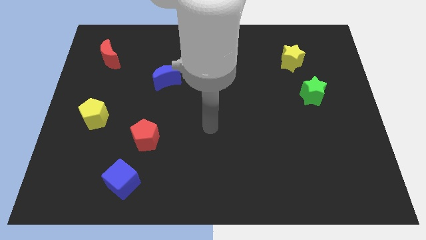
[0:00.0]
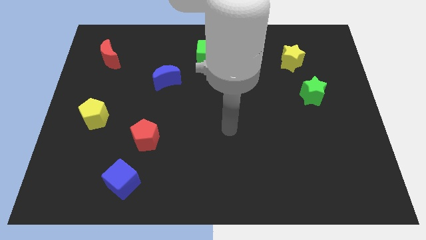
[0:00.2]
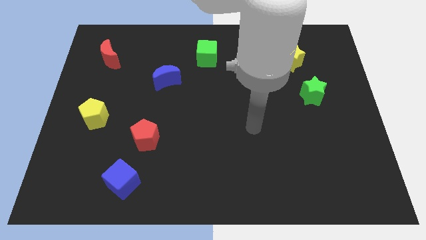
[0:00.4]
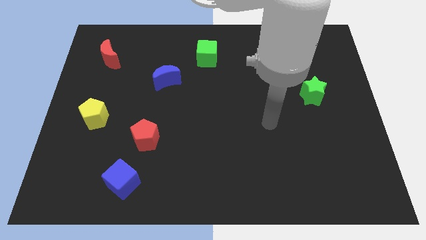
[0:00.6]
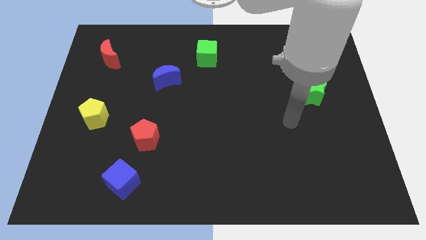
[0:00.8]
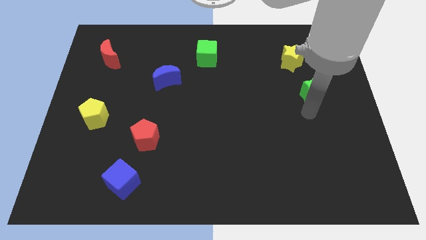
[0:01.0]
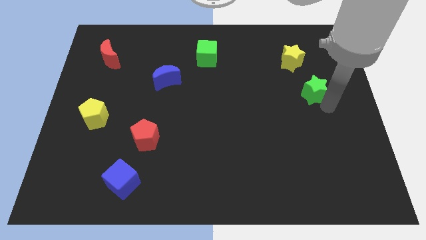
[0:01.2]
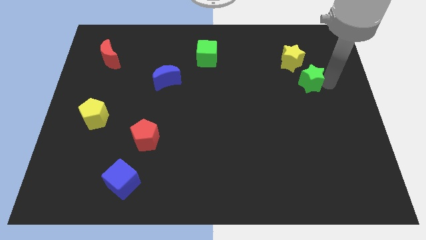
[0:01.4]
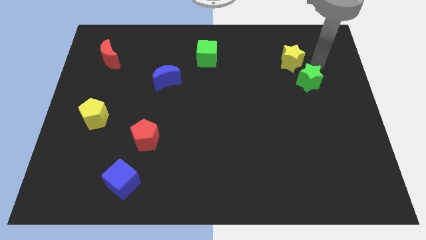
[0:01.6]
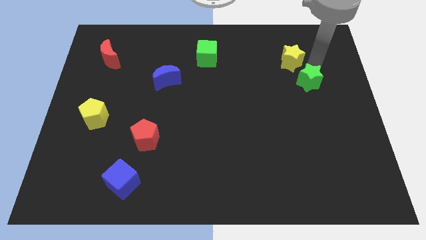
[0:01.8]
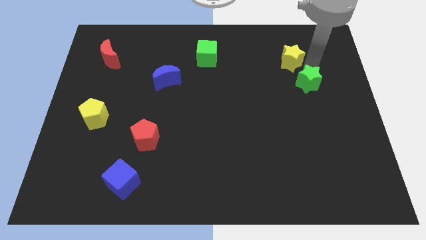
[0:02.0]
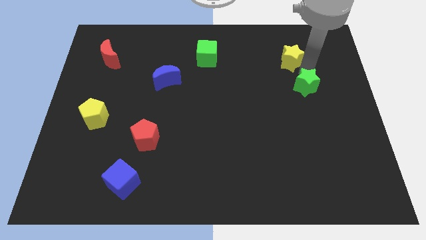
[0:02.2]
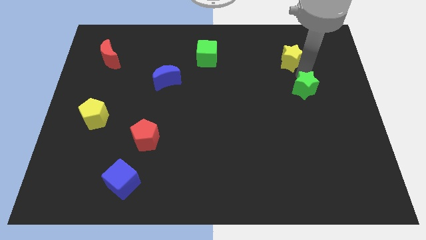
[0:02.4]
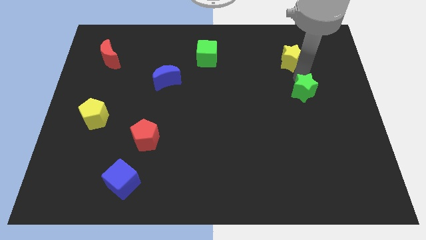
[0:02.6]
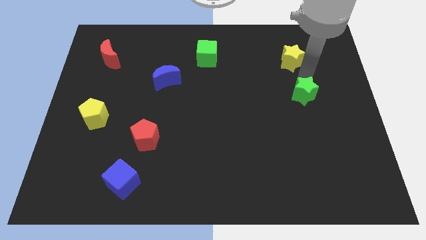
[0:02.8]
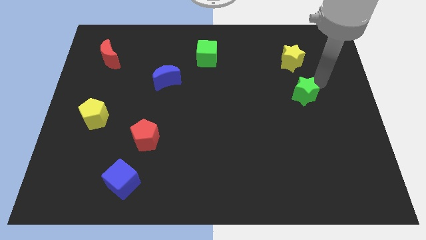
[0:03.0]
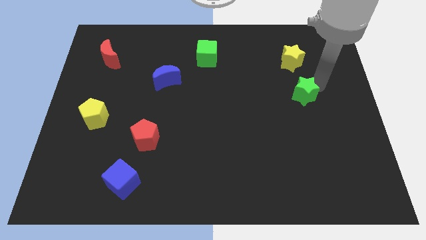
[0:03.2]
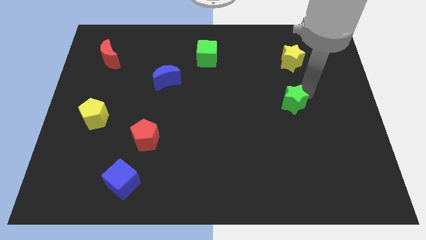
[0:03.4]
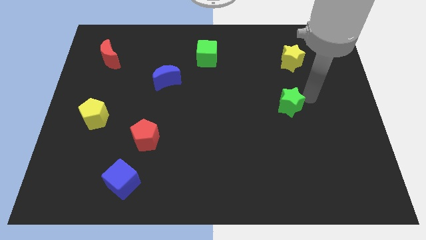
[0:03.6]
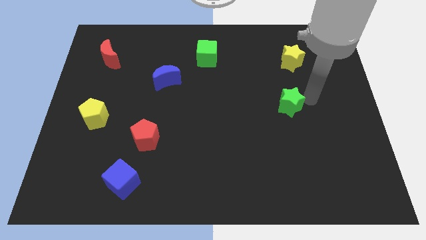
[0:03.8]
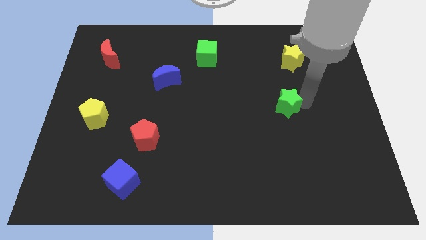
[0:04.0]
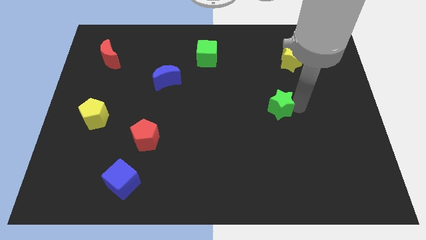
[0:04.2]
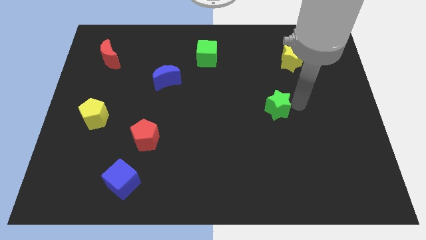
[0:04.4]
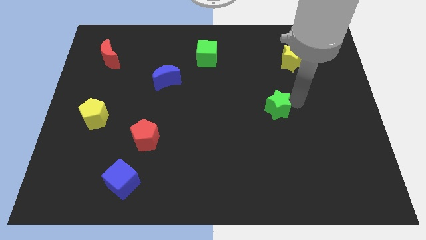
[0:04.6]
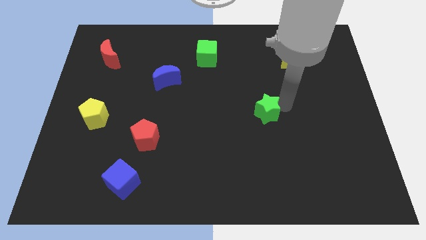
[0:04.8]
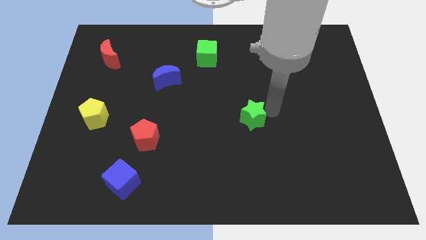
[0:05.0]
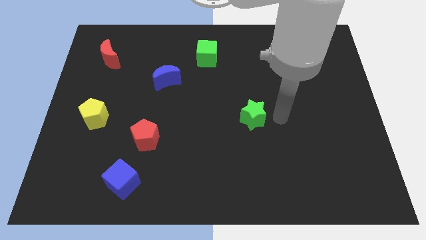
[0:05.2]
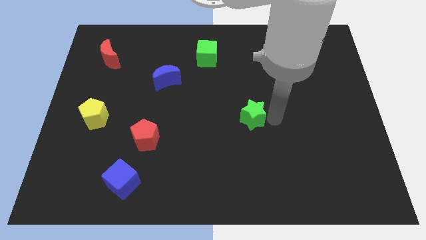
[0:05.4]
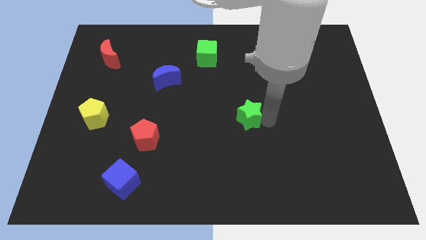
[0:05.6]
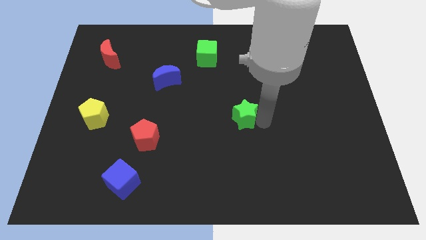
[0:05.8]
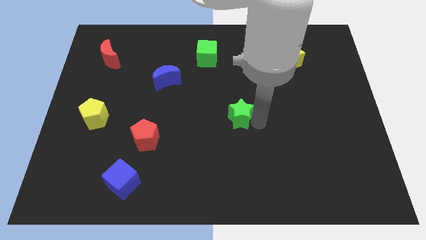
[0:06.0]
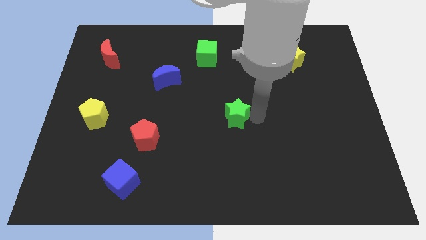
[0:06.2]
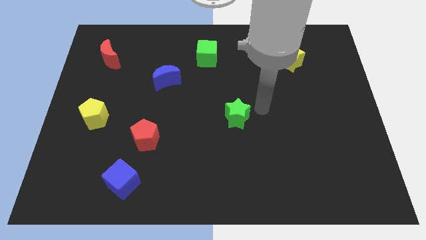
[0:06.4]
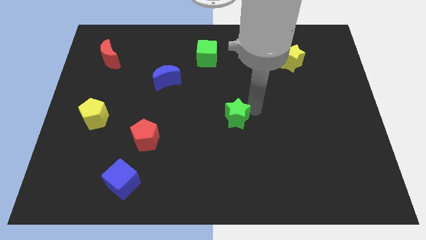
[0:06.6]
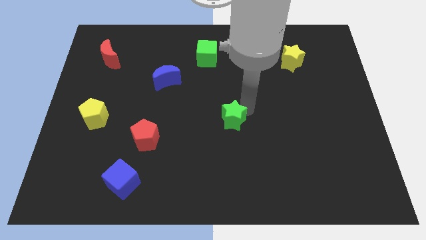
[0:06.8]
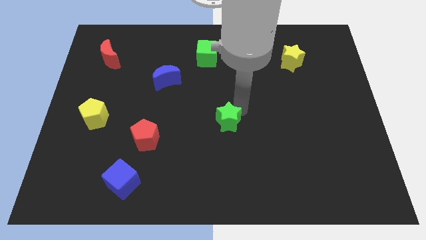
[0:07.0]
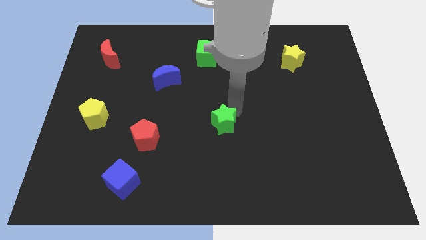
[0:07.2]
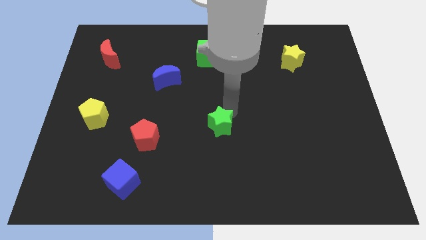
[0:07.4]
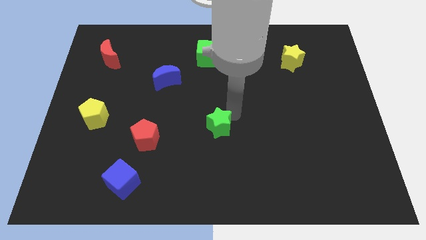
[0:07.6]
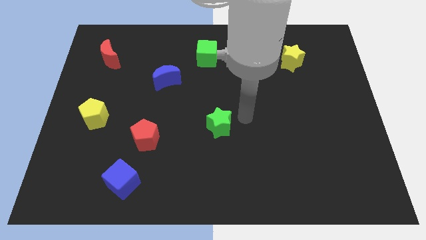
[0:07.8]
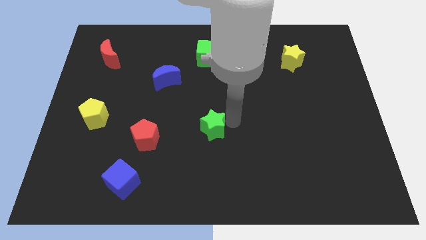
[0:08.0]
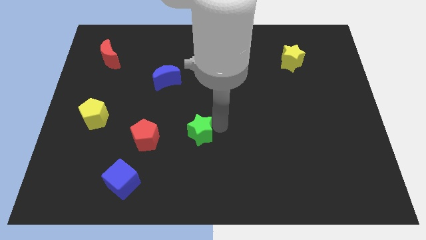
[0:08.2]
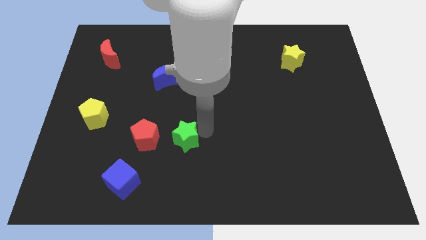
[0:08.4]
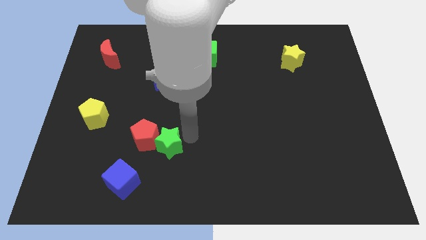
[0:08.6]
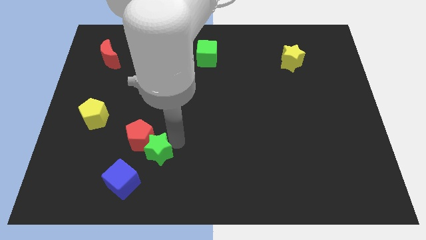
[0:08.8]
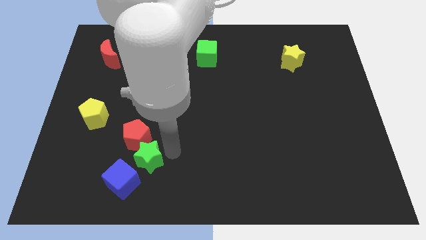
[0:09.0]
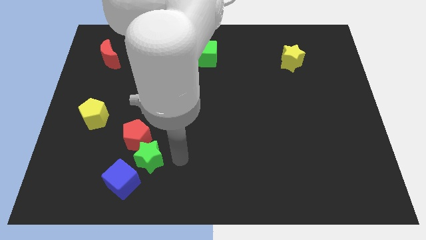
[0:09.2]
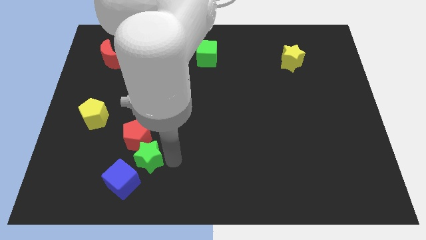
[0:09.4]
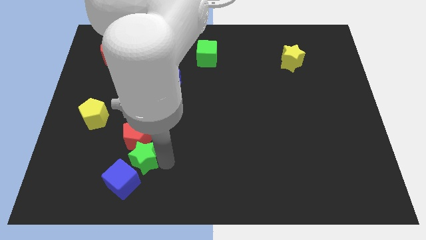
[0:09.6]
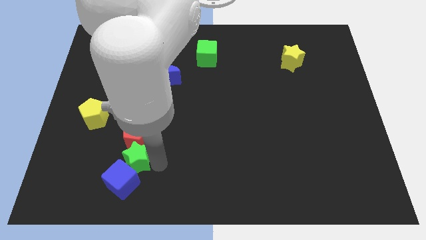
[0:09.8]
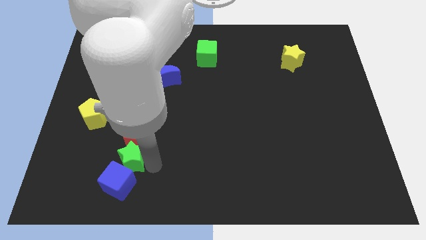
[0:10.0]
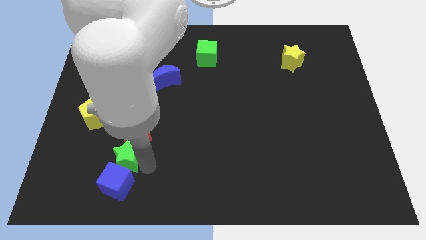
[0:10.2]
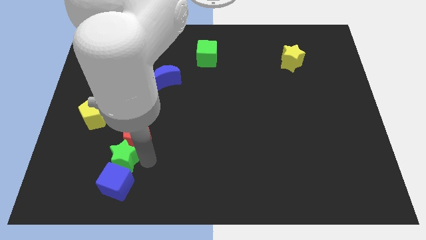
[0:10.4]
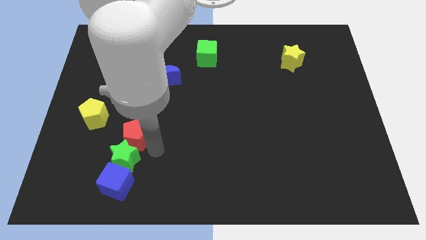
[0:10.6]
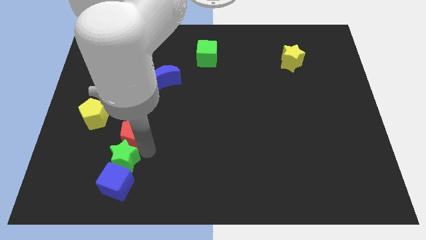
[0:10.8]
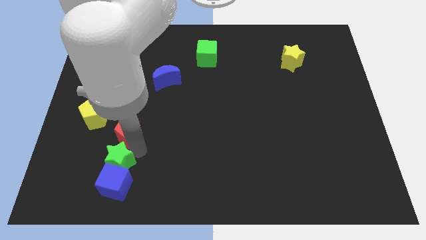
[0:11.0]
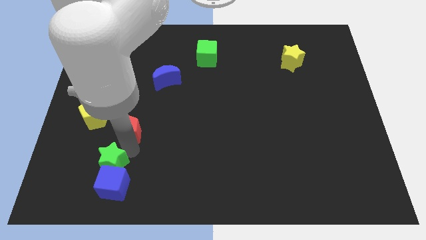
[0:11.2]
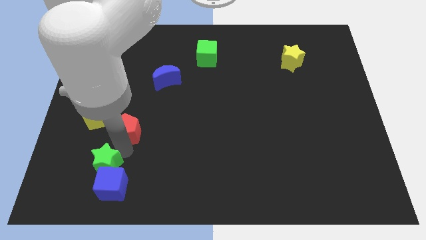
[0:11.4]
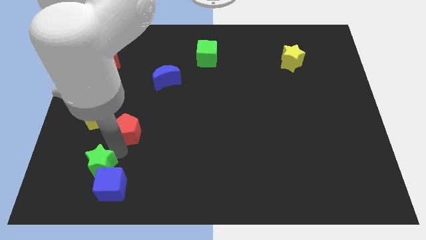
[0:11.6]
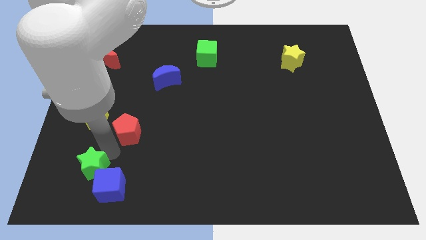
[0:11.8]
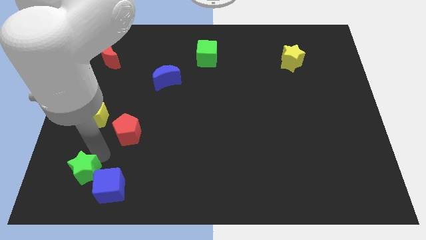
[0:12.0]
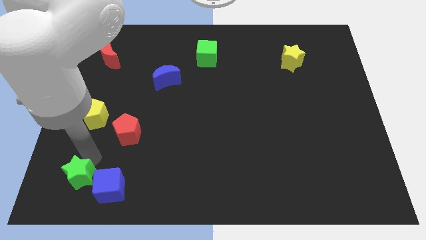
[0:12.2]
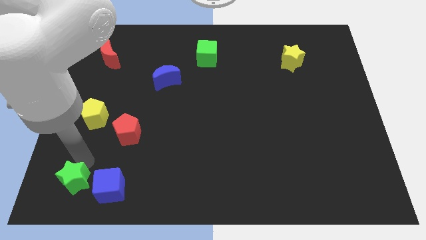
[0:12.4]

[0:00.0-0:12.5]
slide the green star to the bottom left of the board

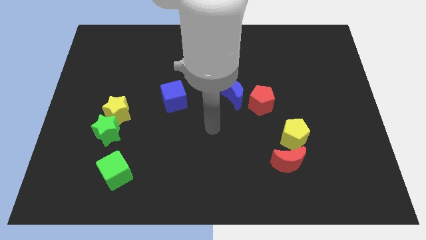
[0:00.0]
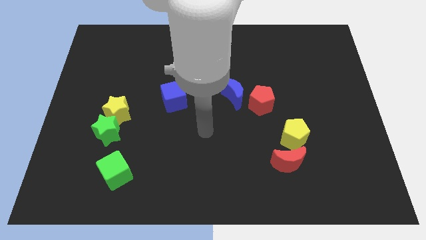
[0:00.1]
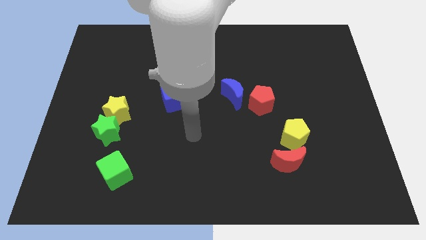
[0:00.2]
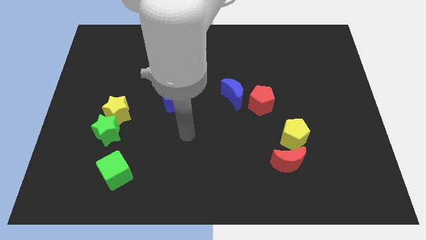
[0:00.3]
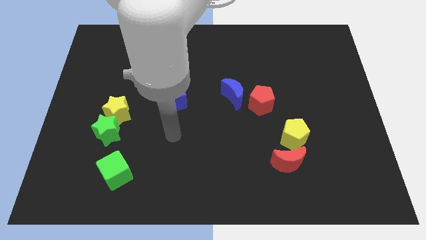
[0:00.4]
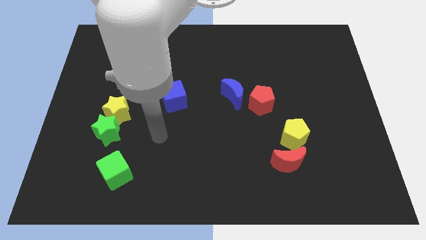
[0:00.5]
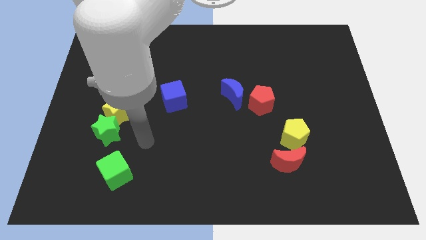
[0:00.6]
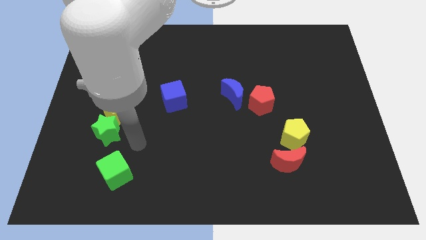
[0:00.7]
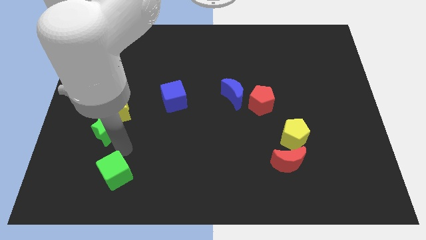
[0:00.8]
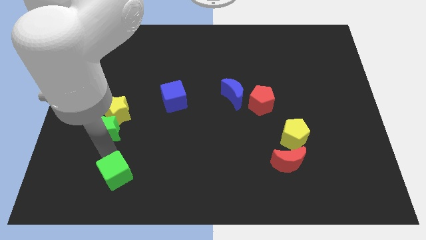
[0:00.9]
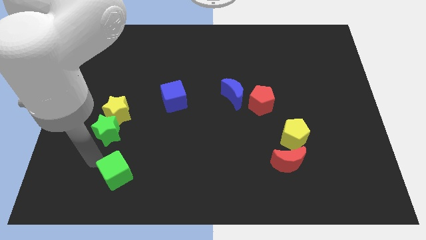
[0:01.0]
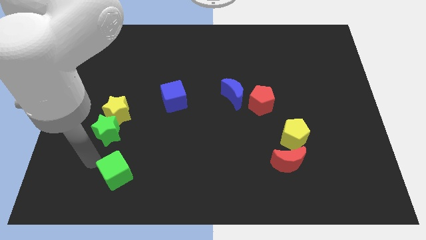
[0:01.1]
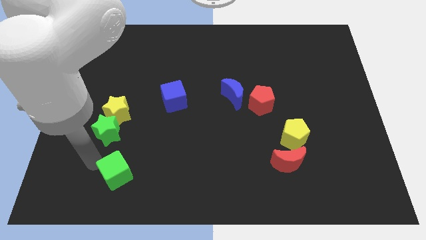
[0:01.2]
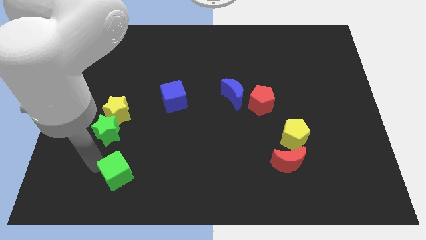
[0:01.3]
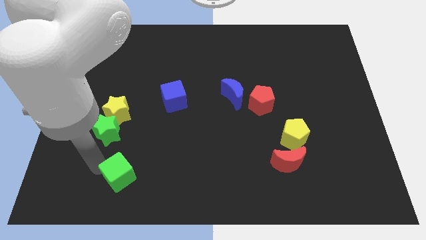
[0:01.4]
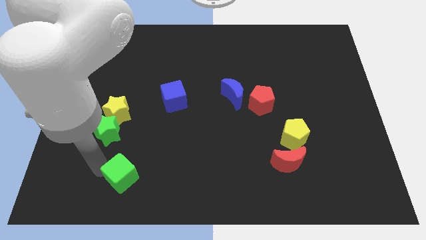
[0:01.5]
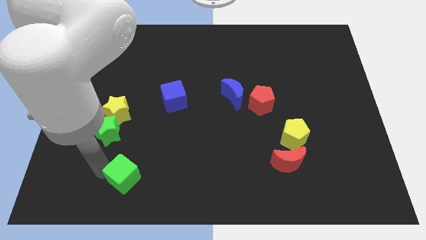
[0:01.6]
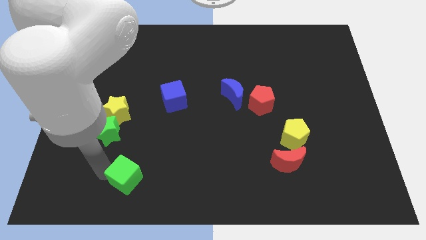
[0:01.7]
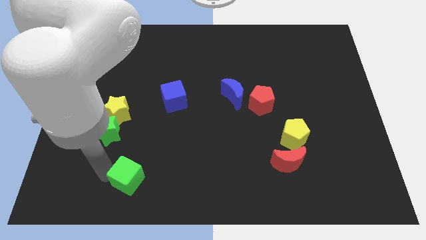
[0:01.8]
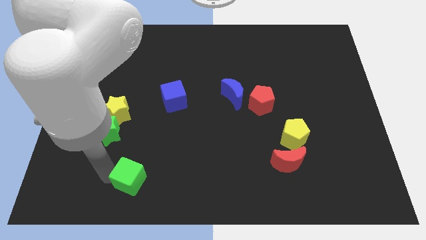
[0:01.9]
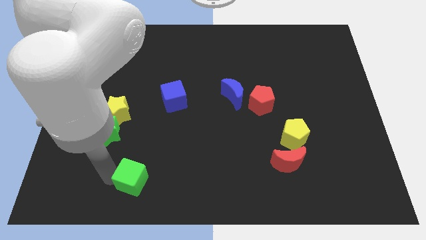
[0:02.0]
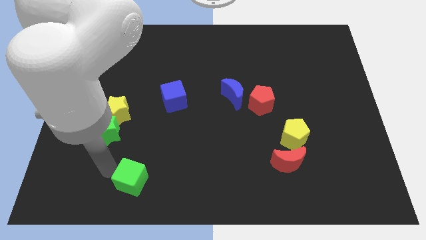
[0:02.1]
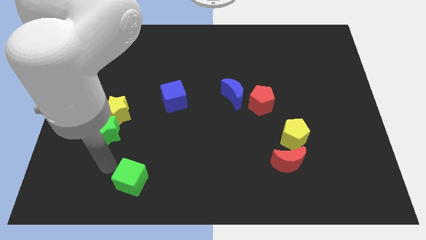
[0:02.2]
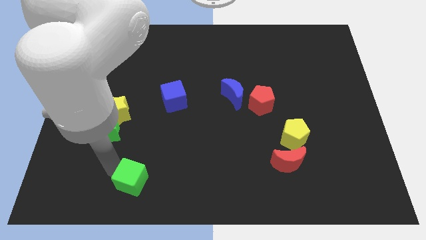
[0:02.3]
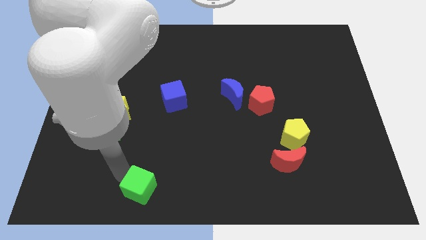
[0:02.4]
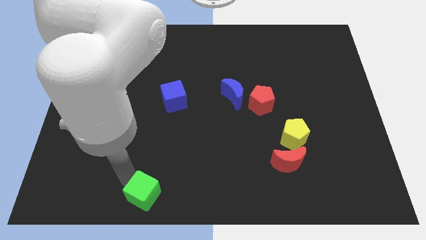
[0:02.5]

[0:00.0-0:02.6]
put the green cube to the bottom side
